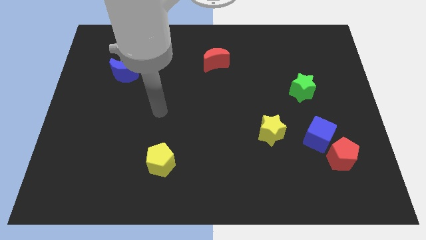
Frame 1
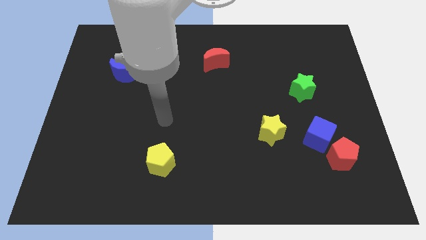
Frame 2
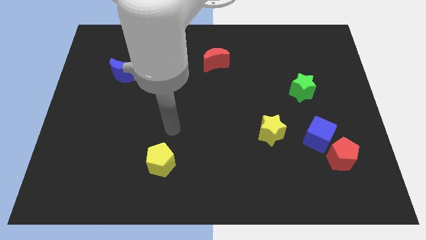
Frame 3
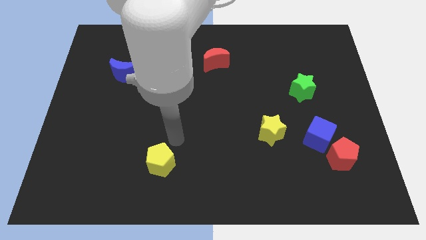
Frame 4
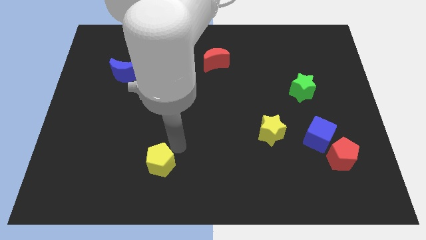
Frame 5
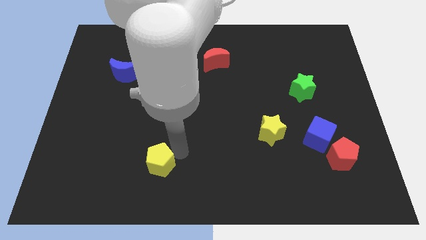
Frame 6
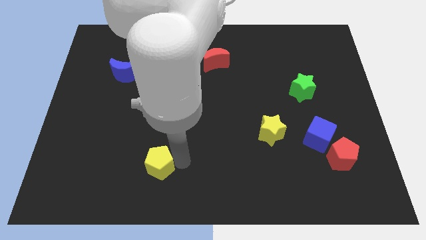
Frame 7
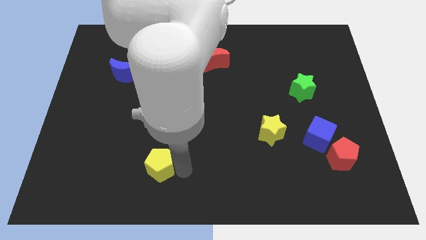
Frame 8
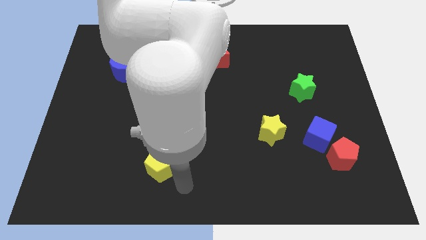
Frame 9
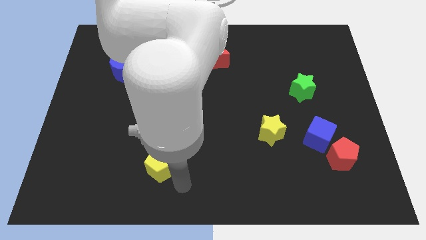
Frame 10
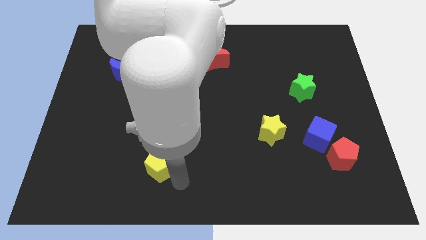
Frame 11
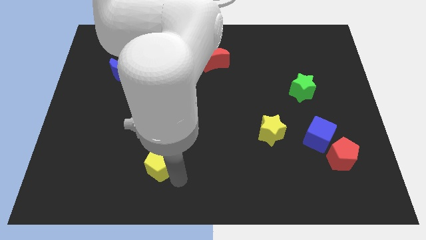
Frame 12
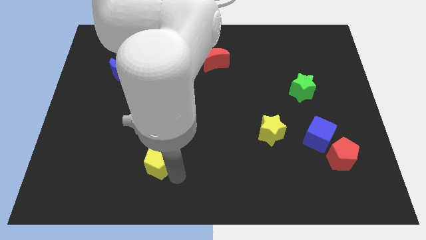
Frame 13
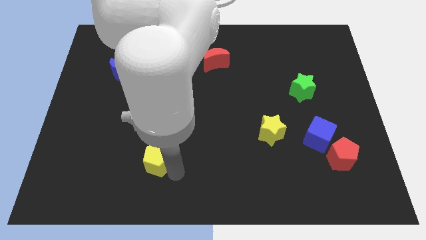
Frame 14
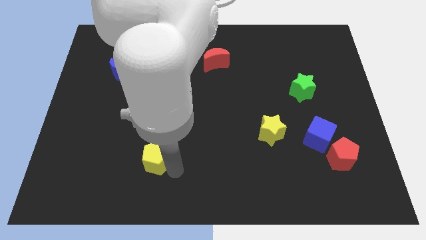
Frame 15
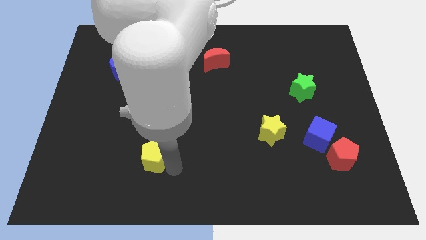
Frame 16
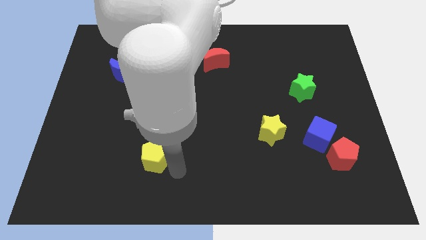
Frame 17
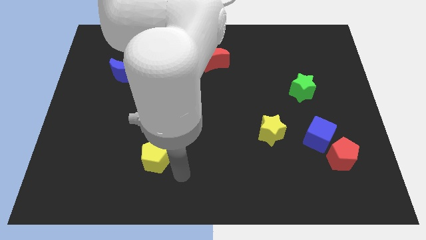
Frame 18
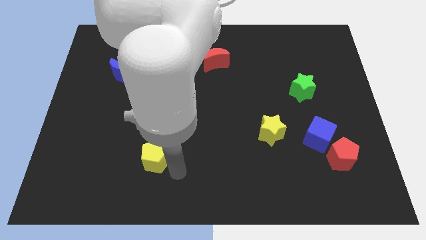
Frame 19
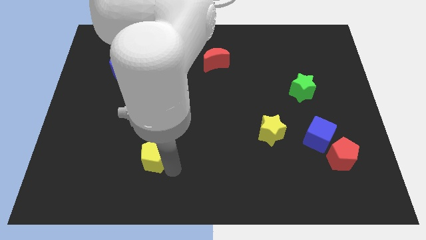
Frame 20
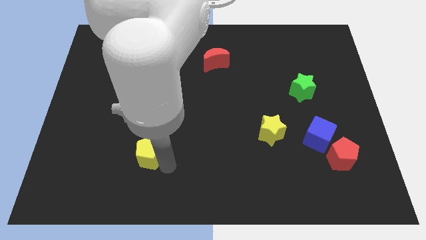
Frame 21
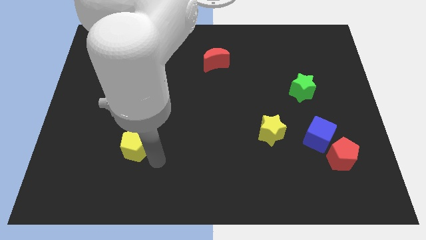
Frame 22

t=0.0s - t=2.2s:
slide the yellow pentagon somewhat upwards and to the left diagonally

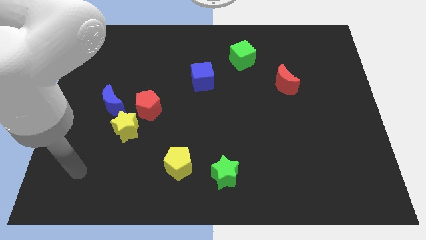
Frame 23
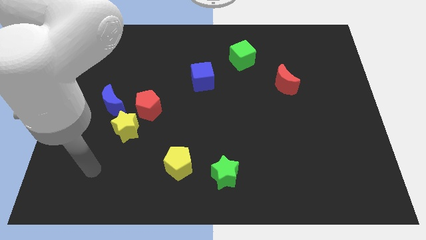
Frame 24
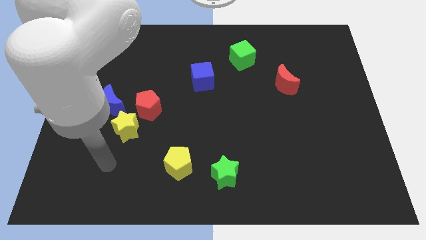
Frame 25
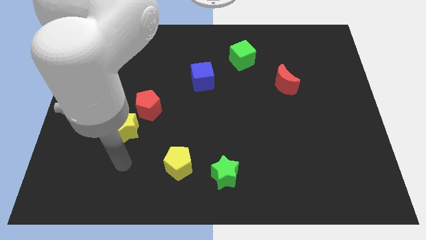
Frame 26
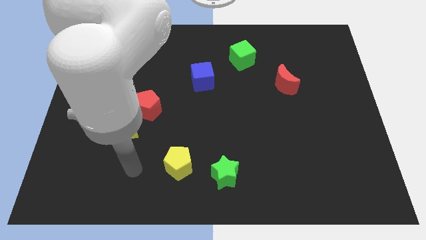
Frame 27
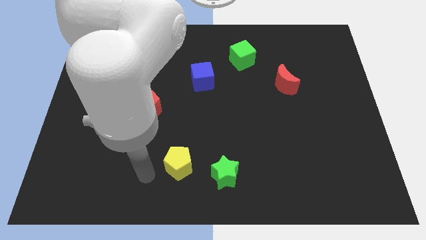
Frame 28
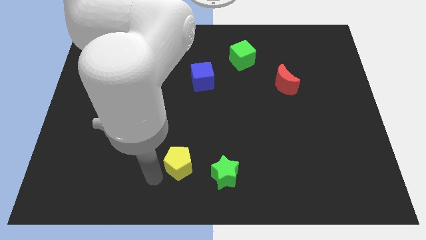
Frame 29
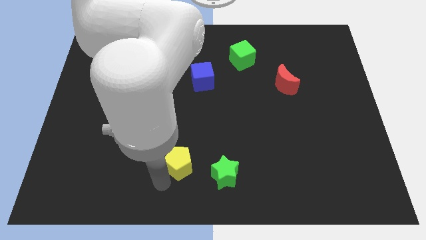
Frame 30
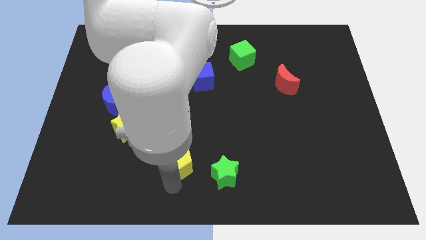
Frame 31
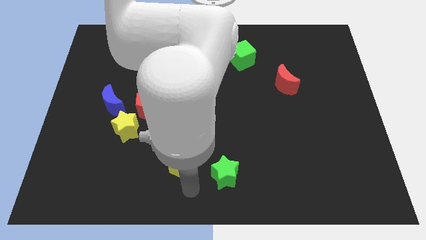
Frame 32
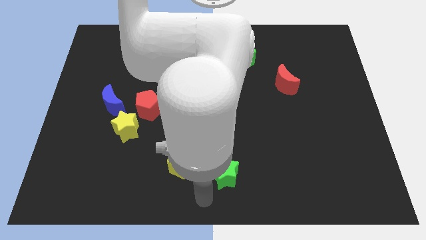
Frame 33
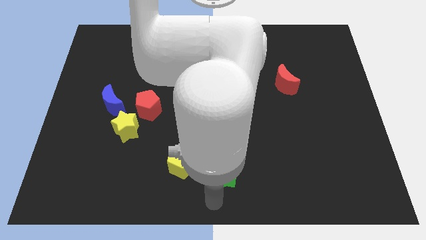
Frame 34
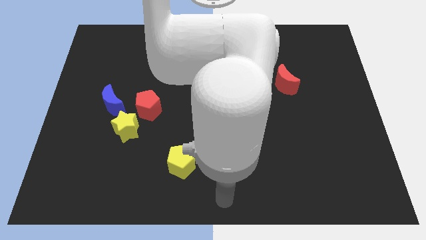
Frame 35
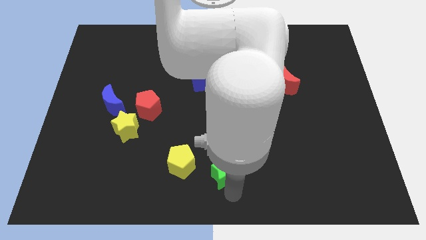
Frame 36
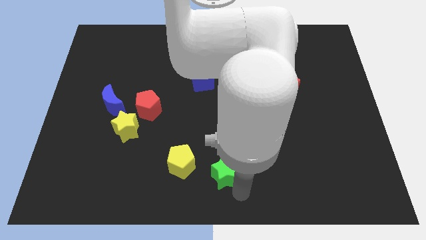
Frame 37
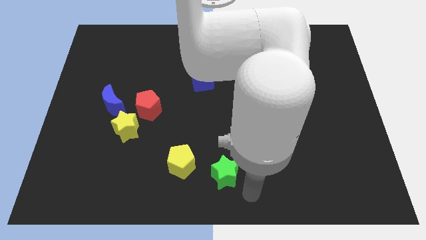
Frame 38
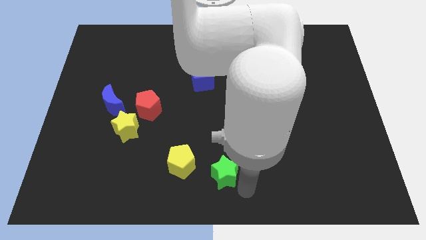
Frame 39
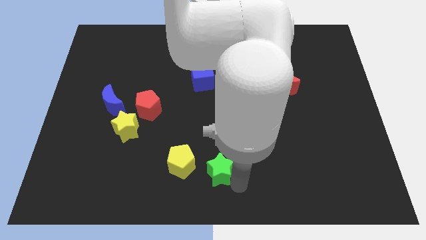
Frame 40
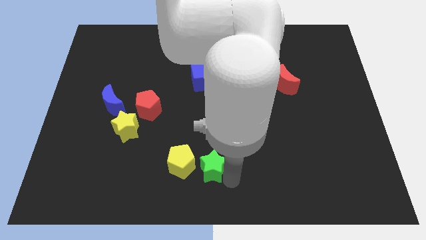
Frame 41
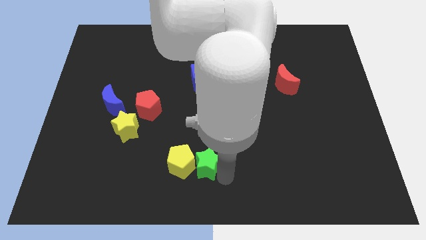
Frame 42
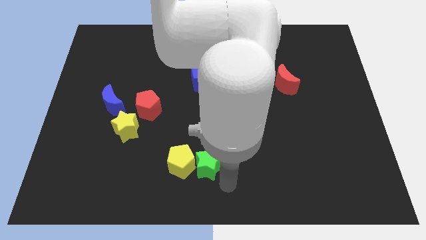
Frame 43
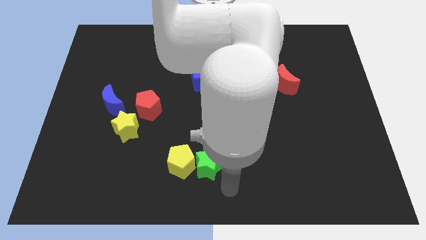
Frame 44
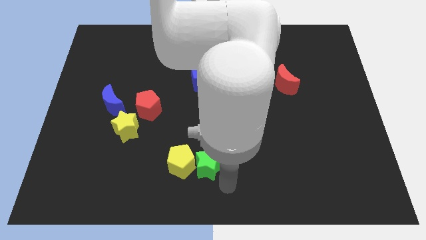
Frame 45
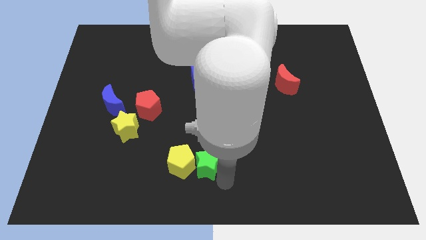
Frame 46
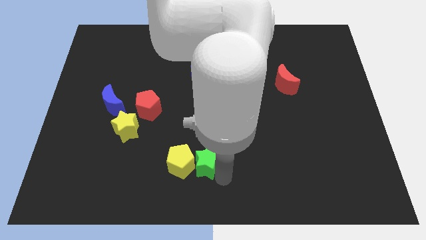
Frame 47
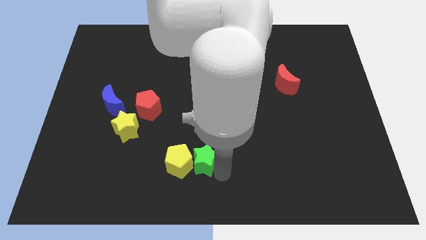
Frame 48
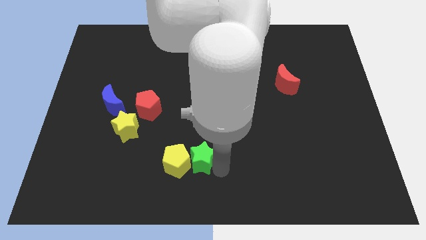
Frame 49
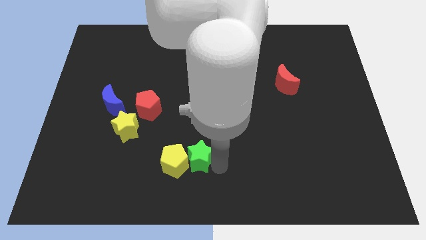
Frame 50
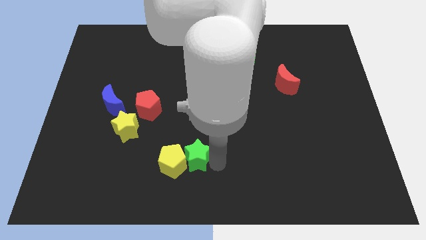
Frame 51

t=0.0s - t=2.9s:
push the green star diagonally up and left slightly

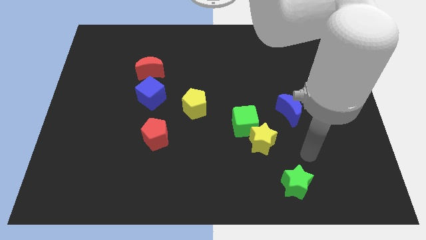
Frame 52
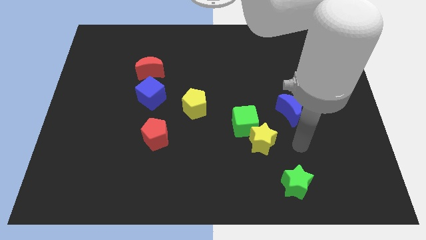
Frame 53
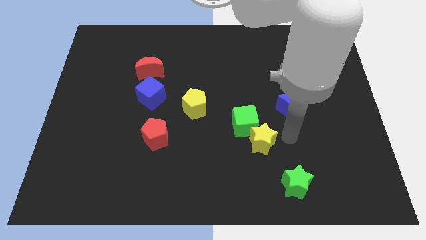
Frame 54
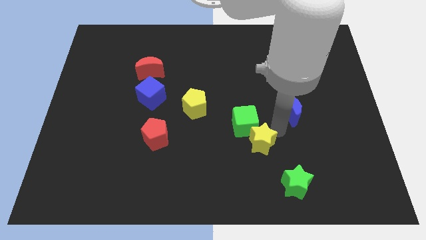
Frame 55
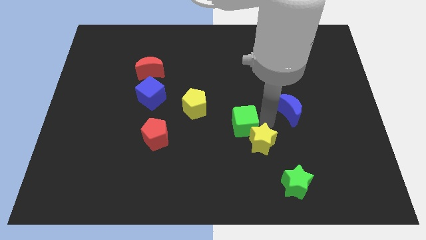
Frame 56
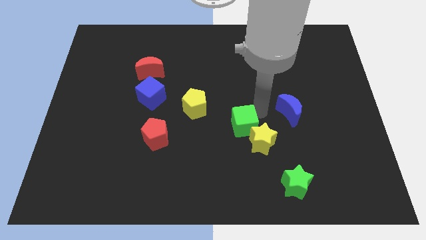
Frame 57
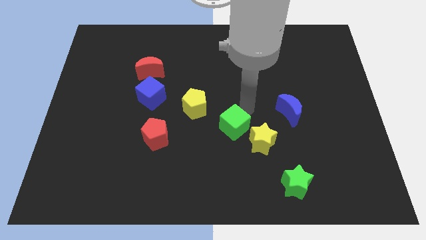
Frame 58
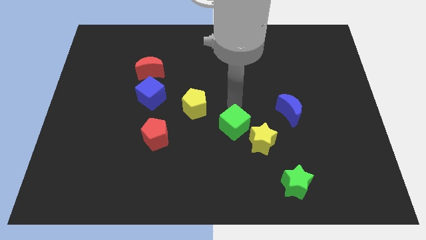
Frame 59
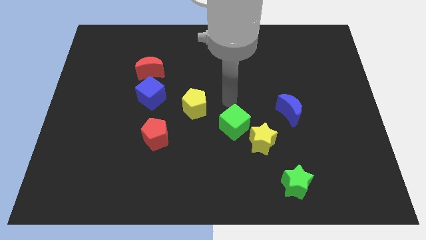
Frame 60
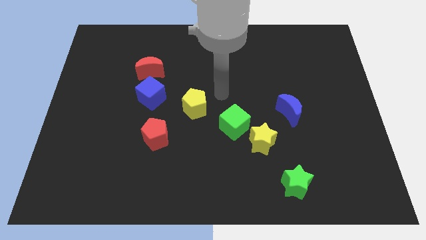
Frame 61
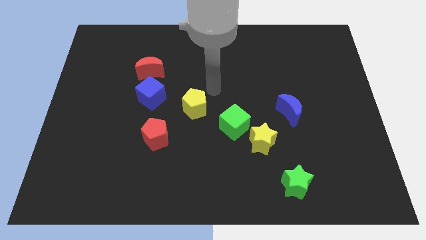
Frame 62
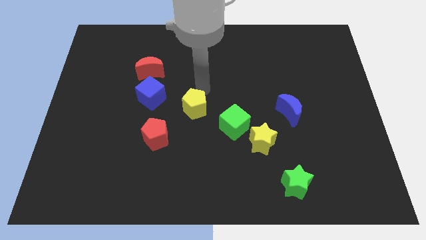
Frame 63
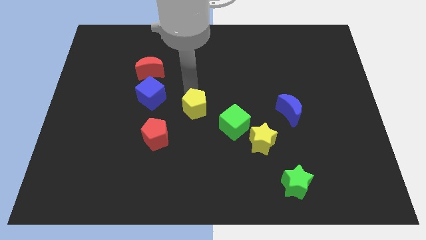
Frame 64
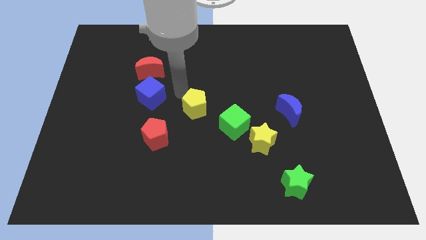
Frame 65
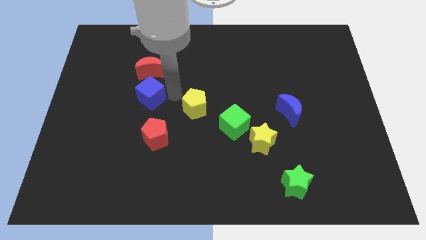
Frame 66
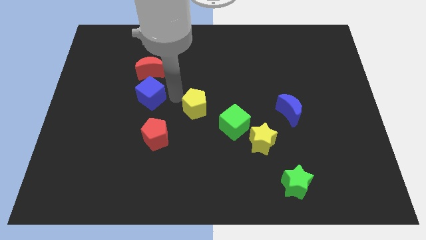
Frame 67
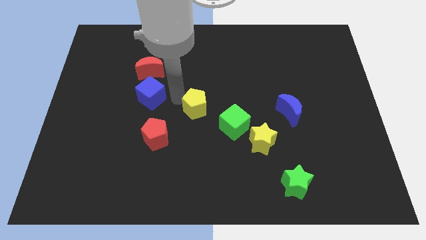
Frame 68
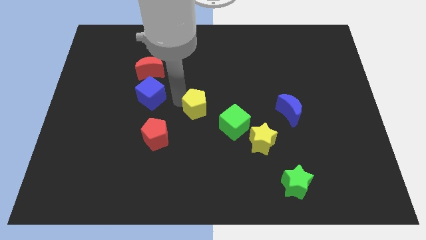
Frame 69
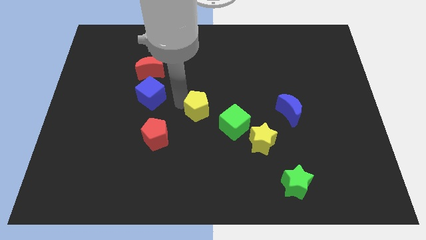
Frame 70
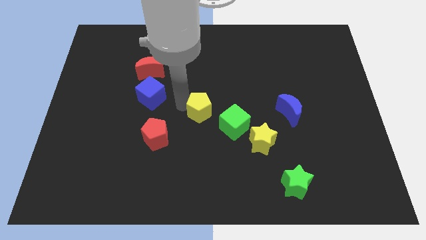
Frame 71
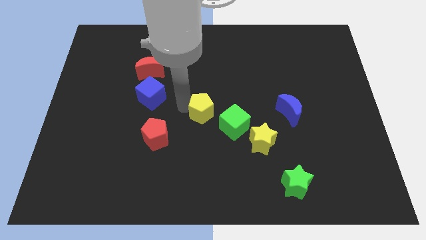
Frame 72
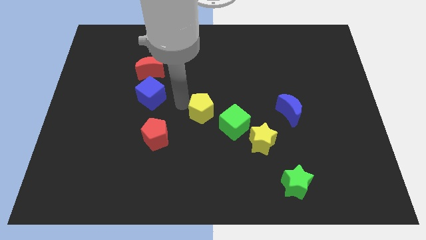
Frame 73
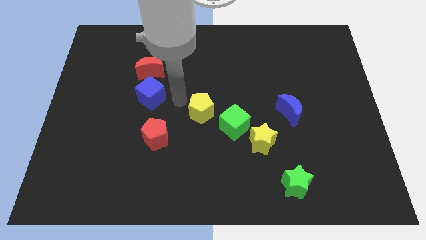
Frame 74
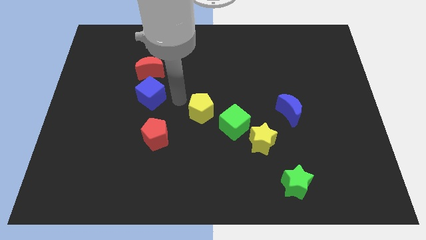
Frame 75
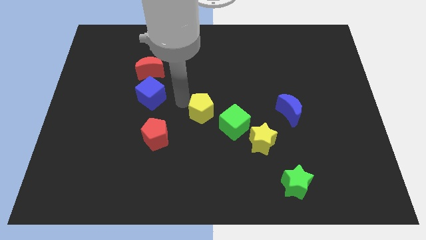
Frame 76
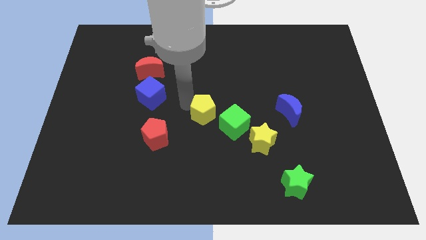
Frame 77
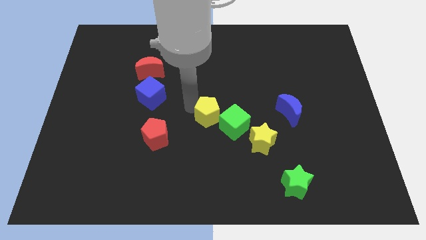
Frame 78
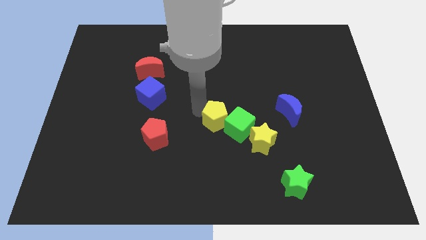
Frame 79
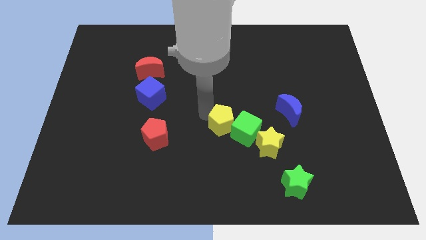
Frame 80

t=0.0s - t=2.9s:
slide the yellow pentagon down and then right slightly
